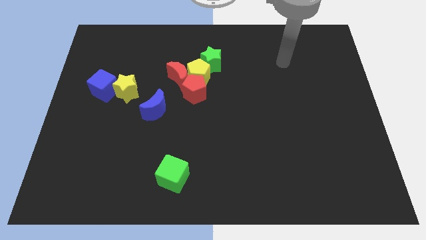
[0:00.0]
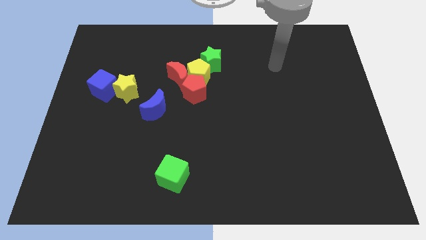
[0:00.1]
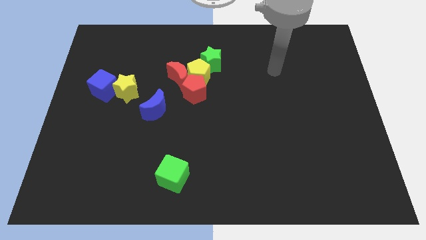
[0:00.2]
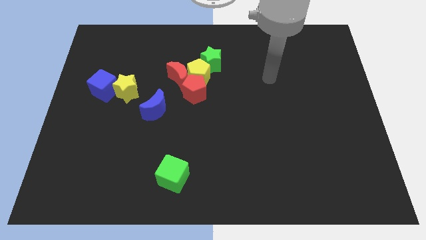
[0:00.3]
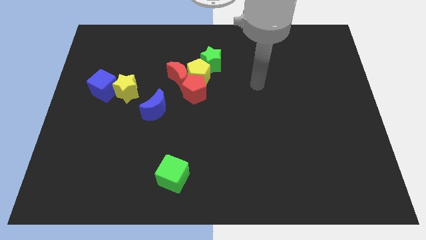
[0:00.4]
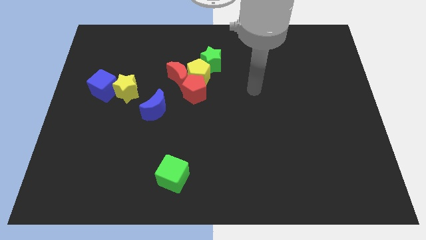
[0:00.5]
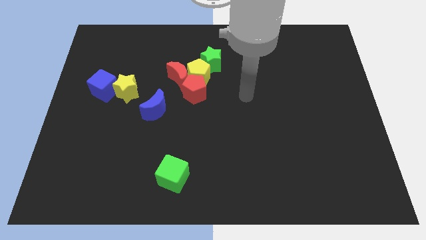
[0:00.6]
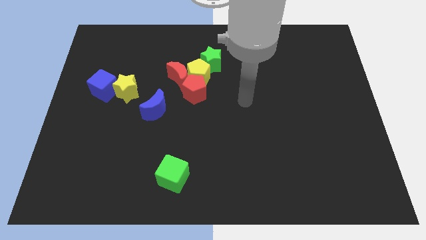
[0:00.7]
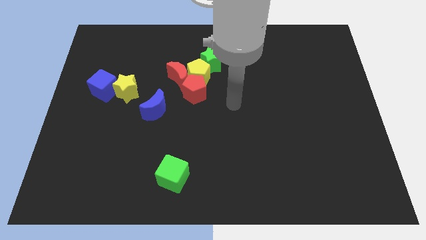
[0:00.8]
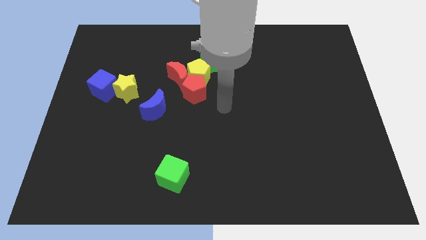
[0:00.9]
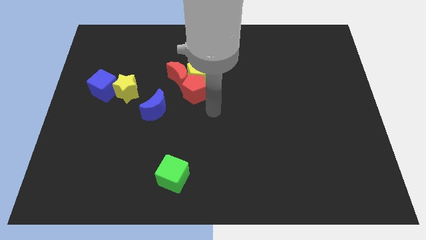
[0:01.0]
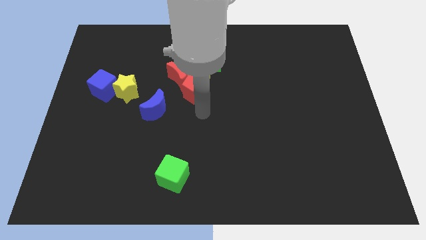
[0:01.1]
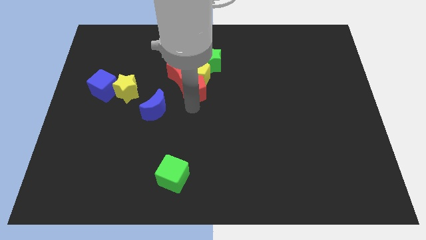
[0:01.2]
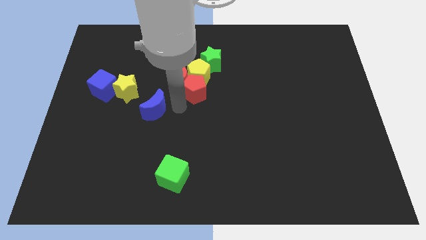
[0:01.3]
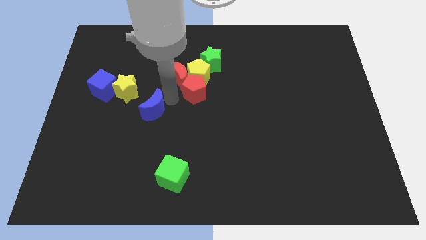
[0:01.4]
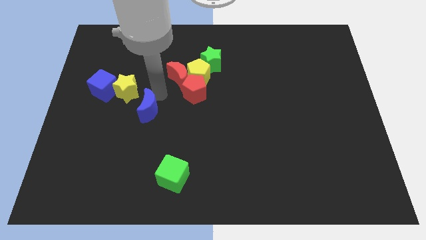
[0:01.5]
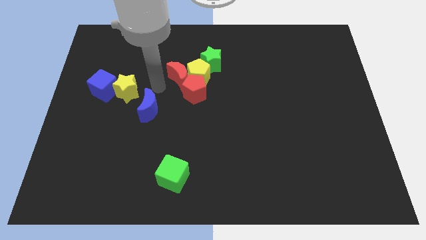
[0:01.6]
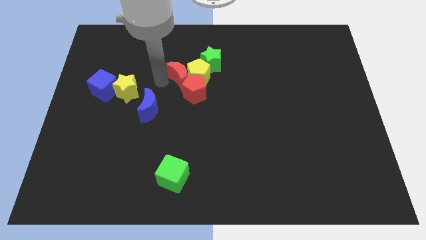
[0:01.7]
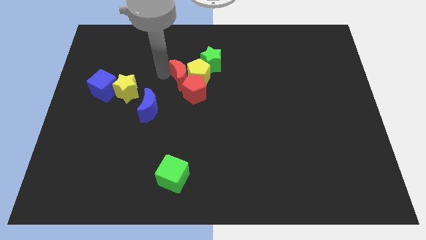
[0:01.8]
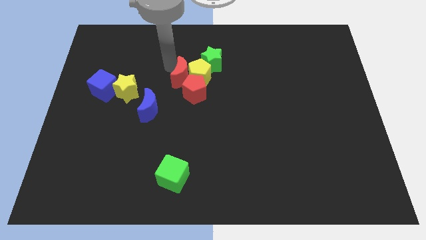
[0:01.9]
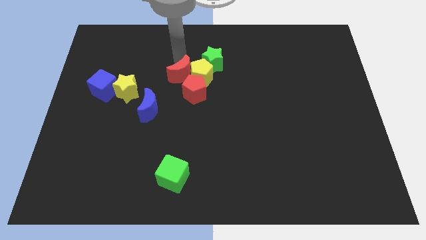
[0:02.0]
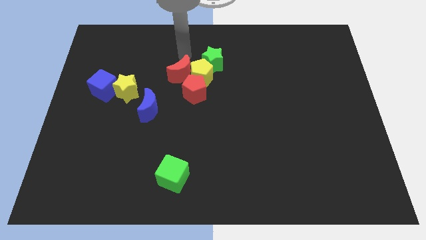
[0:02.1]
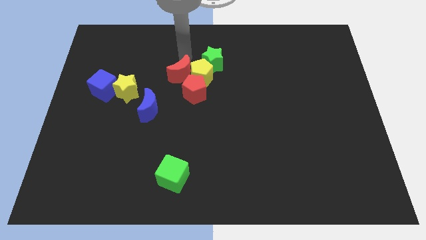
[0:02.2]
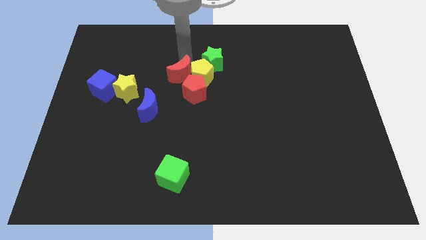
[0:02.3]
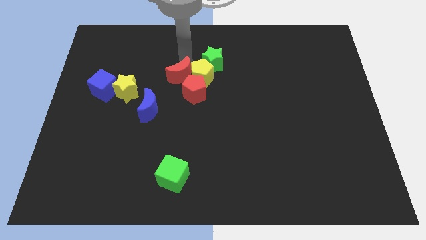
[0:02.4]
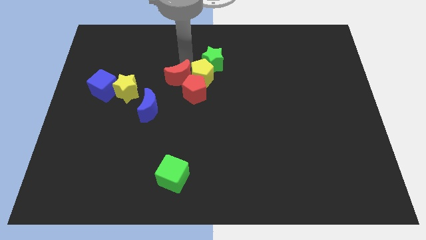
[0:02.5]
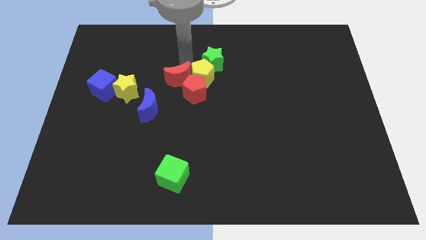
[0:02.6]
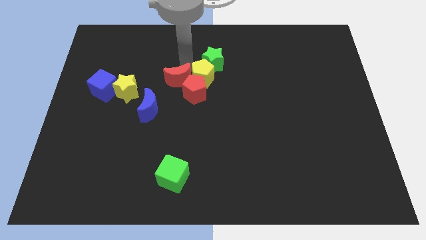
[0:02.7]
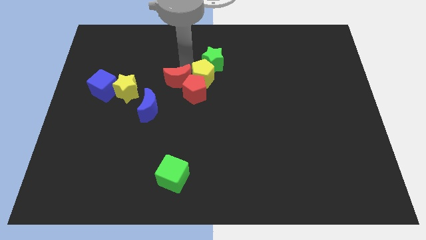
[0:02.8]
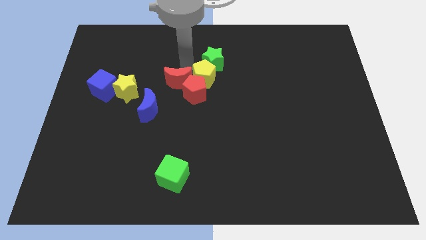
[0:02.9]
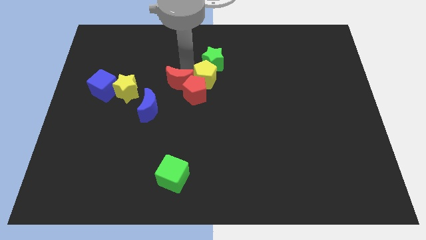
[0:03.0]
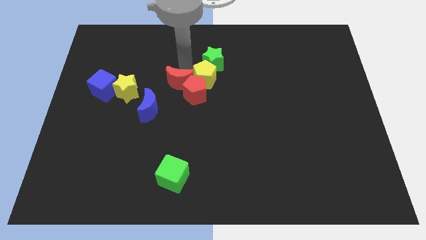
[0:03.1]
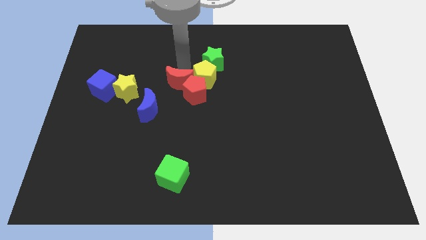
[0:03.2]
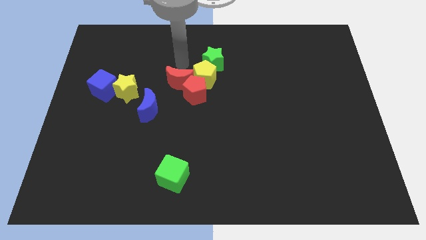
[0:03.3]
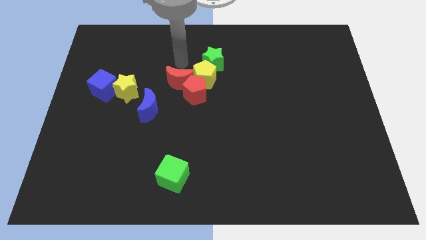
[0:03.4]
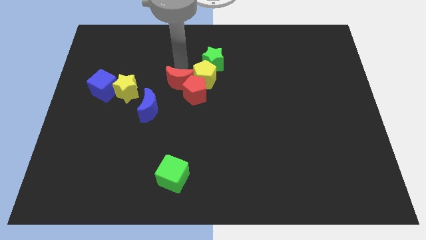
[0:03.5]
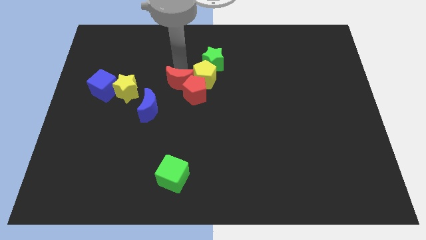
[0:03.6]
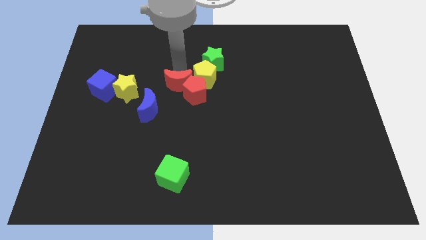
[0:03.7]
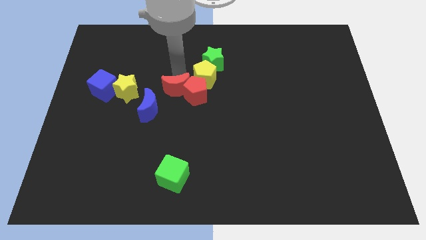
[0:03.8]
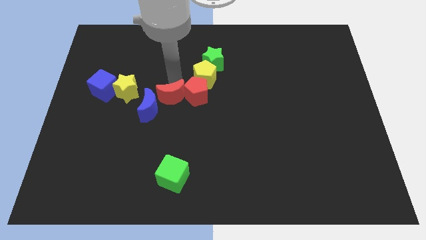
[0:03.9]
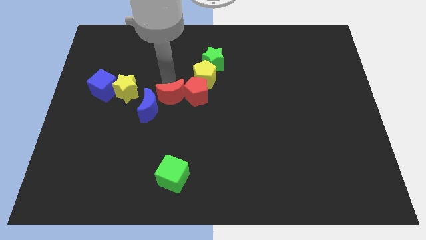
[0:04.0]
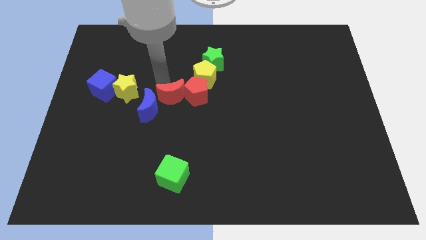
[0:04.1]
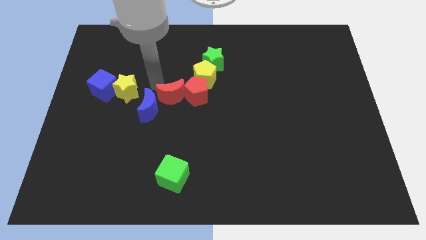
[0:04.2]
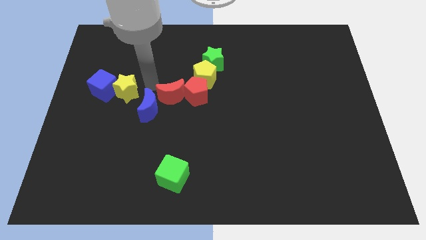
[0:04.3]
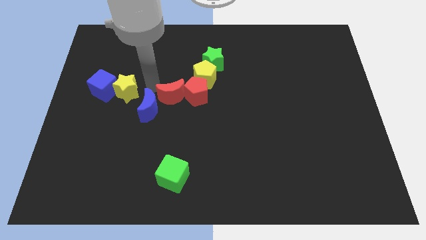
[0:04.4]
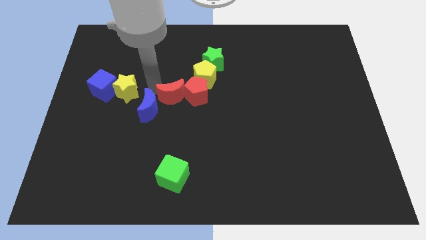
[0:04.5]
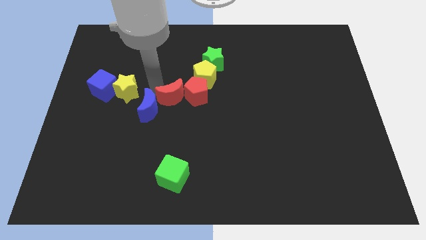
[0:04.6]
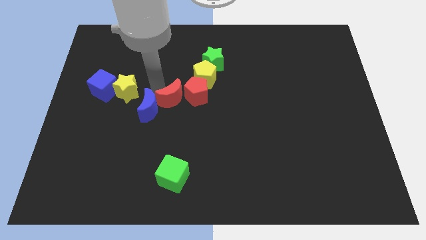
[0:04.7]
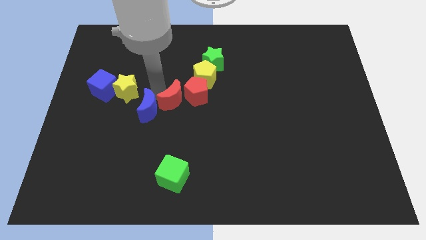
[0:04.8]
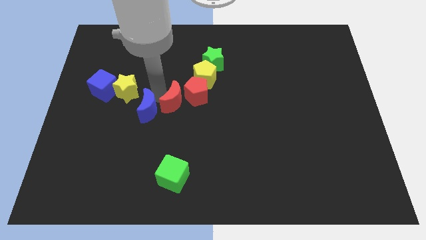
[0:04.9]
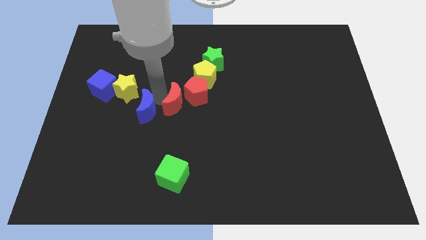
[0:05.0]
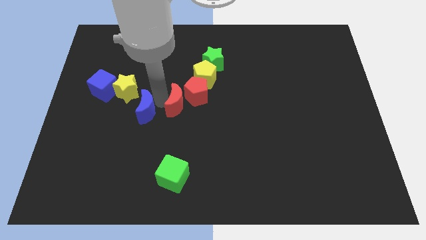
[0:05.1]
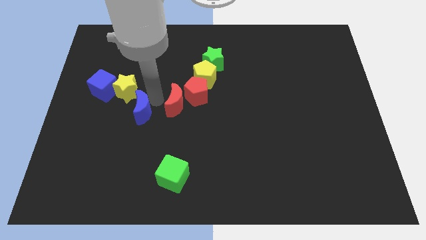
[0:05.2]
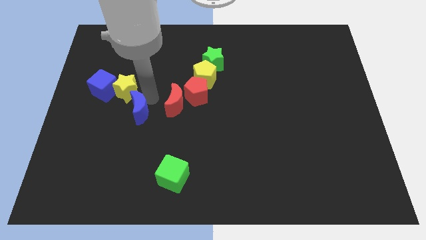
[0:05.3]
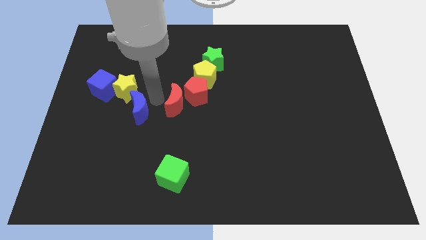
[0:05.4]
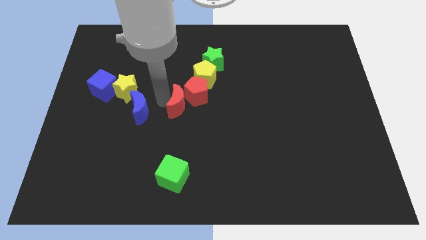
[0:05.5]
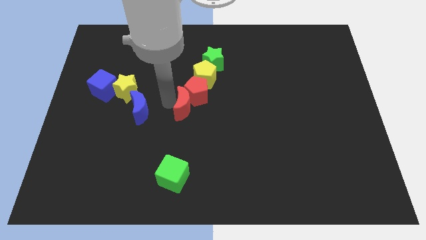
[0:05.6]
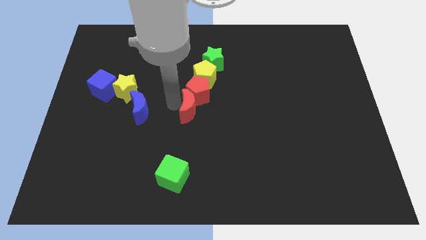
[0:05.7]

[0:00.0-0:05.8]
slightly push the red moon down and right

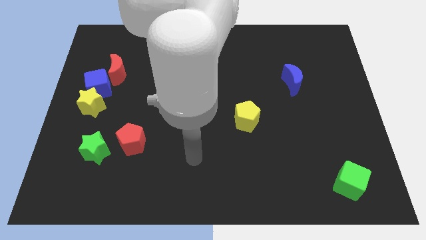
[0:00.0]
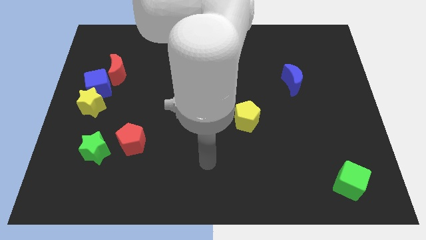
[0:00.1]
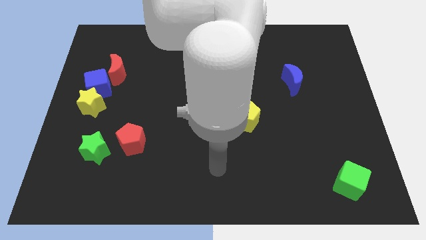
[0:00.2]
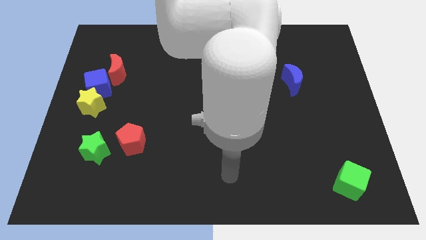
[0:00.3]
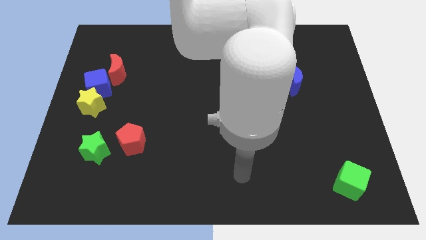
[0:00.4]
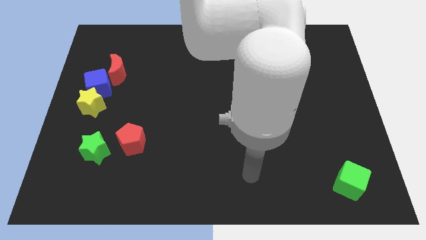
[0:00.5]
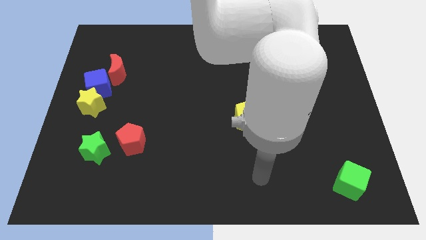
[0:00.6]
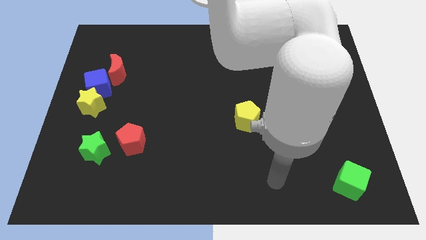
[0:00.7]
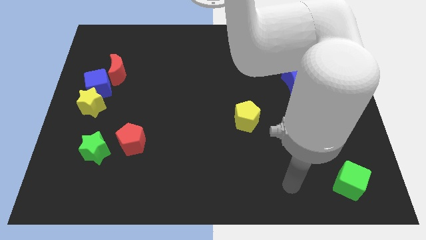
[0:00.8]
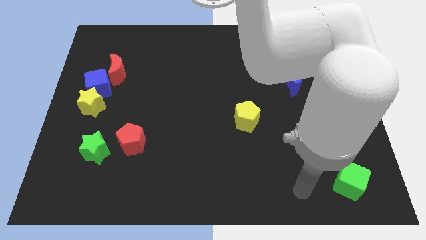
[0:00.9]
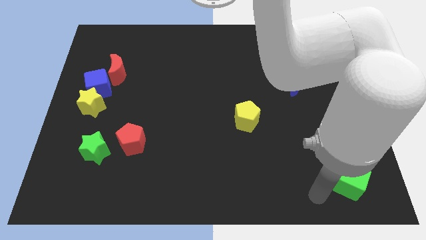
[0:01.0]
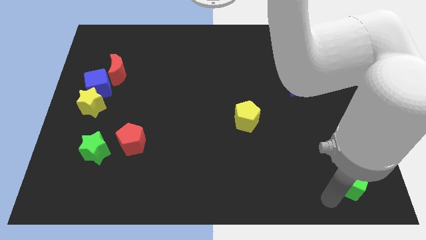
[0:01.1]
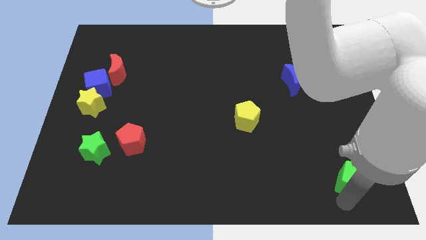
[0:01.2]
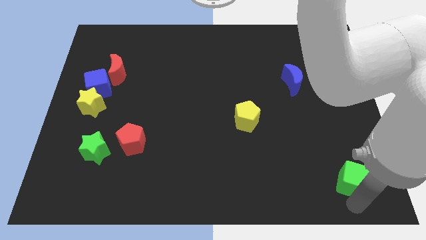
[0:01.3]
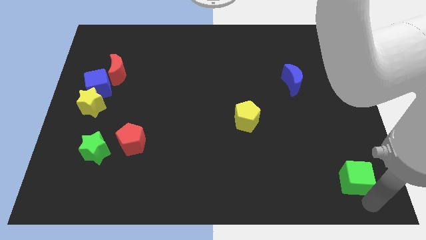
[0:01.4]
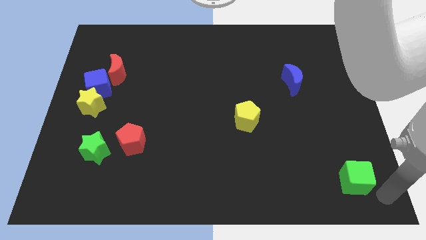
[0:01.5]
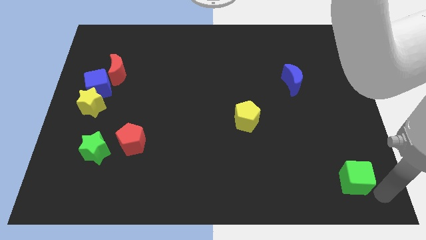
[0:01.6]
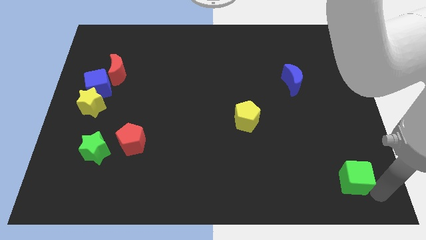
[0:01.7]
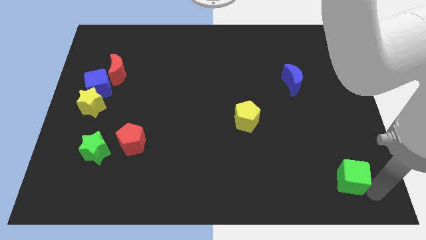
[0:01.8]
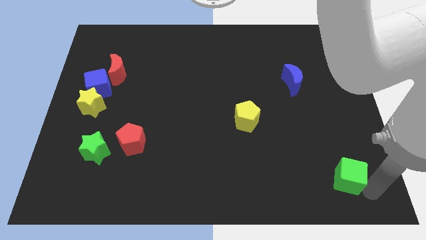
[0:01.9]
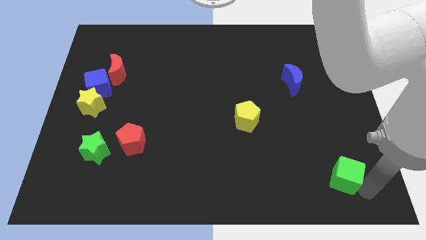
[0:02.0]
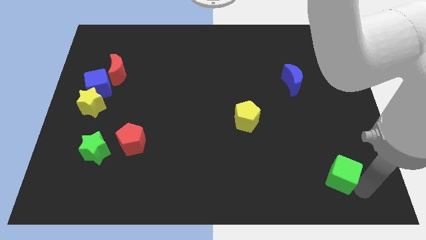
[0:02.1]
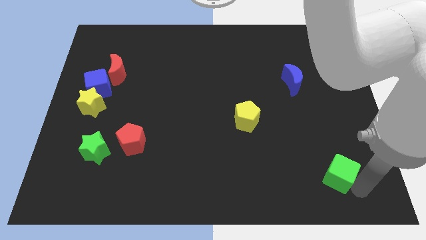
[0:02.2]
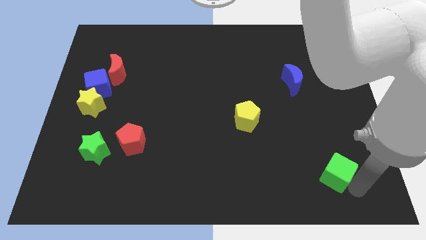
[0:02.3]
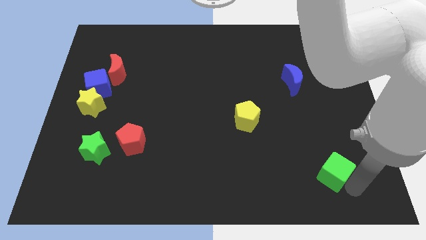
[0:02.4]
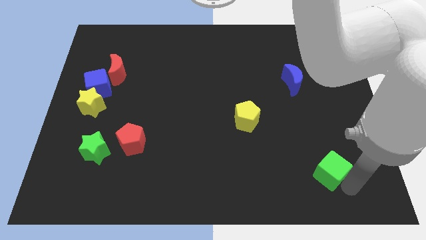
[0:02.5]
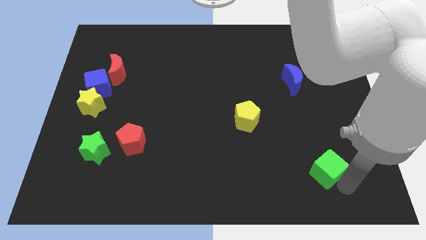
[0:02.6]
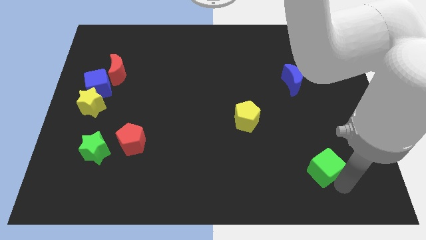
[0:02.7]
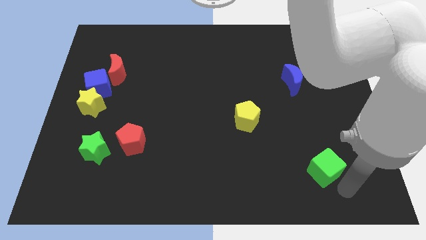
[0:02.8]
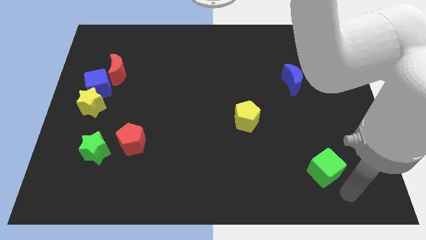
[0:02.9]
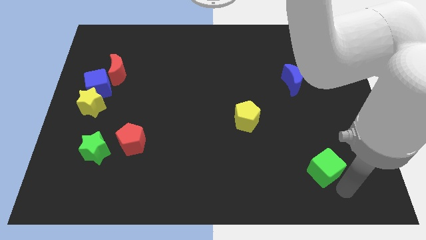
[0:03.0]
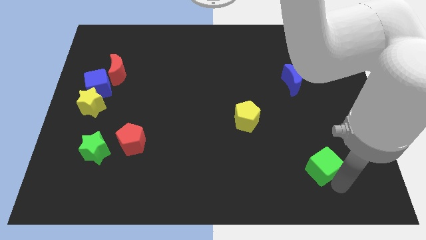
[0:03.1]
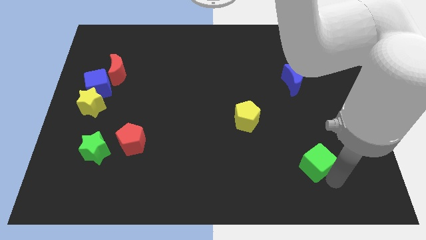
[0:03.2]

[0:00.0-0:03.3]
slightly move the green cube diagonally upwards and to the left
